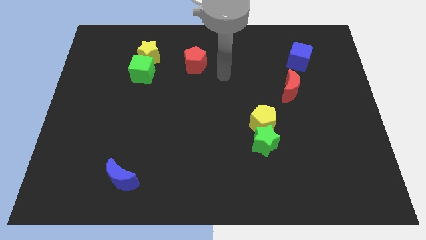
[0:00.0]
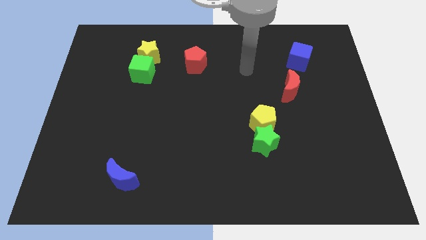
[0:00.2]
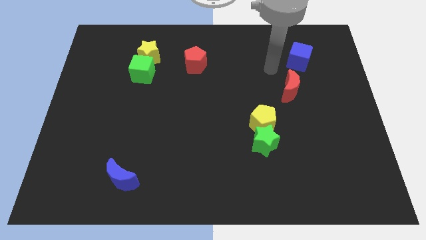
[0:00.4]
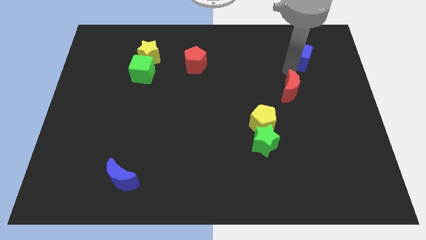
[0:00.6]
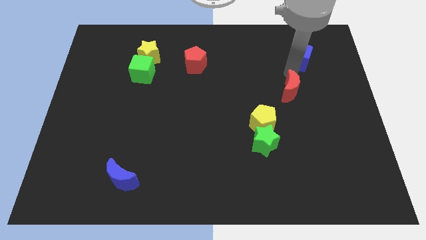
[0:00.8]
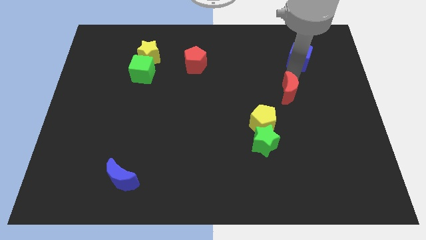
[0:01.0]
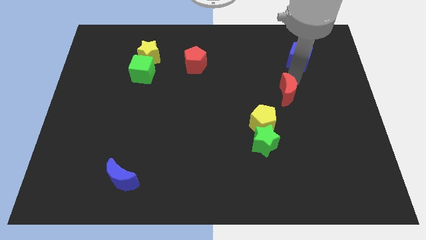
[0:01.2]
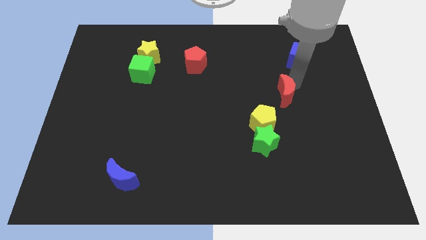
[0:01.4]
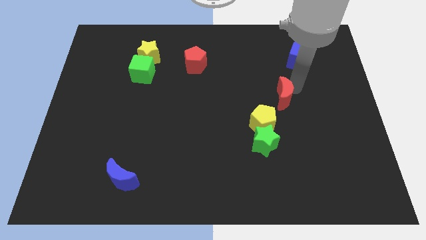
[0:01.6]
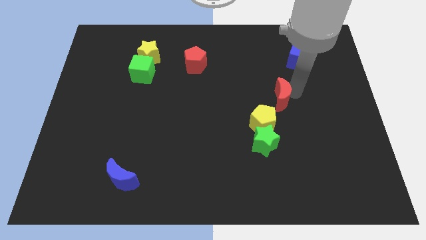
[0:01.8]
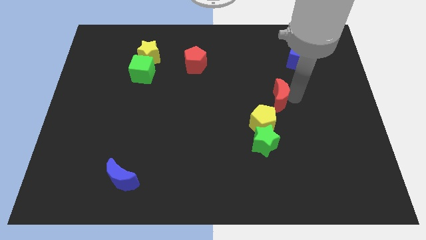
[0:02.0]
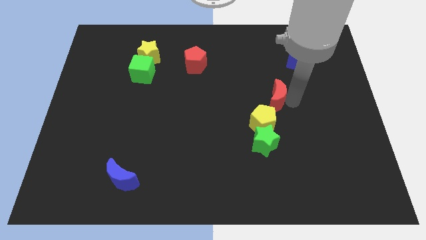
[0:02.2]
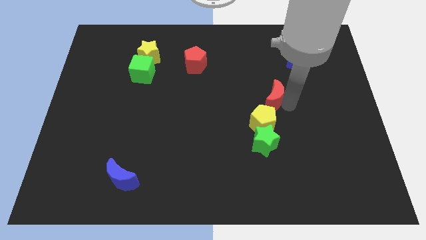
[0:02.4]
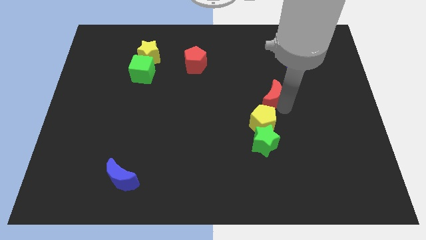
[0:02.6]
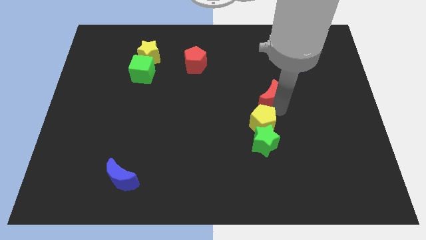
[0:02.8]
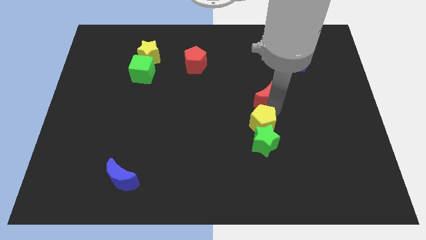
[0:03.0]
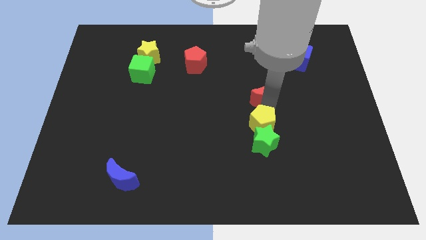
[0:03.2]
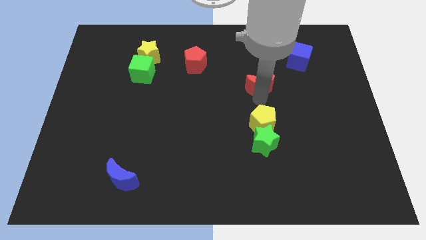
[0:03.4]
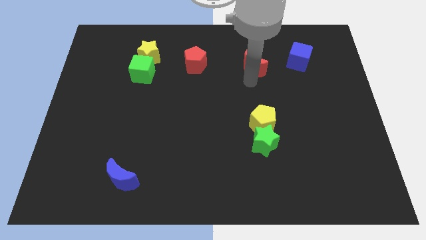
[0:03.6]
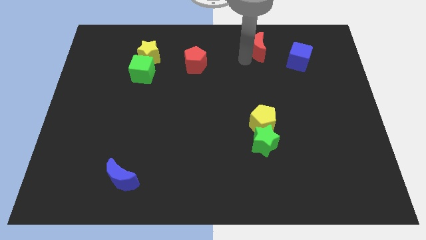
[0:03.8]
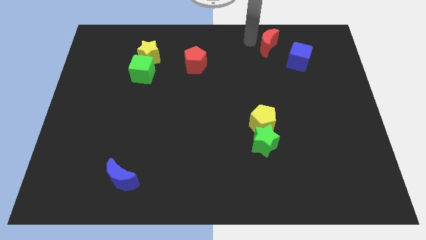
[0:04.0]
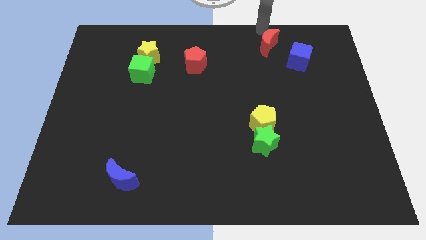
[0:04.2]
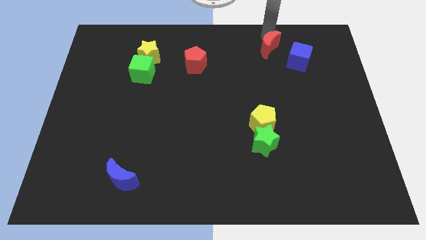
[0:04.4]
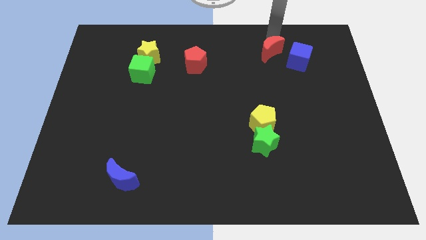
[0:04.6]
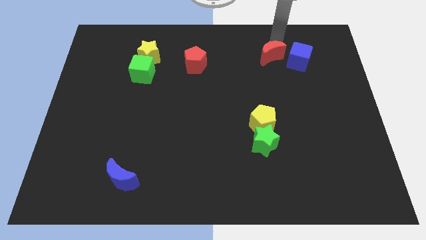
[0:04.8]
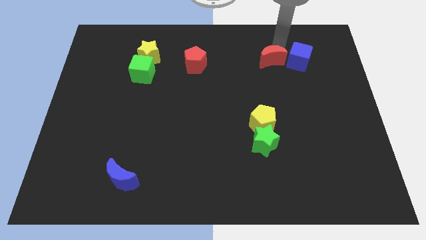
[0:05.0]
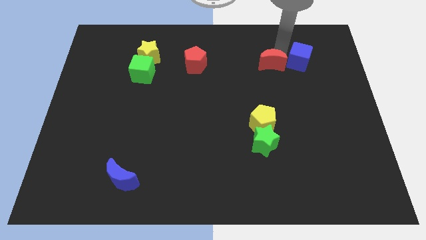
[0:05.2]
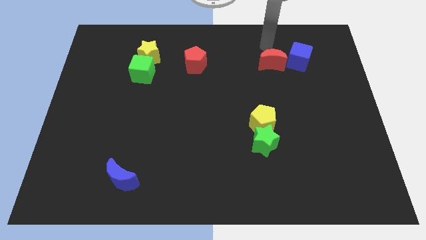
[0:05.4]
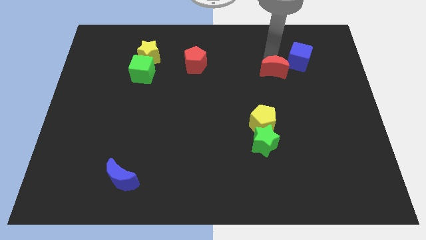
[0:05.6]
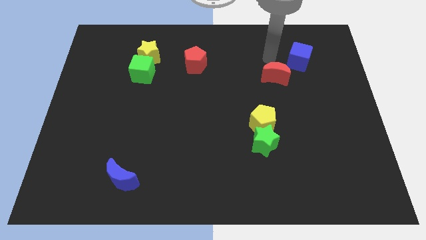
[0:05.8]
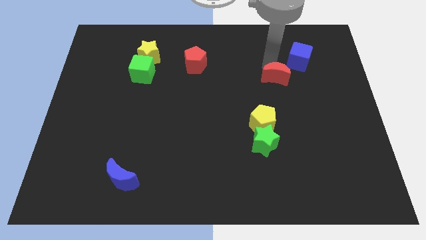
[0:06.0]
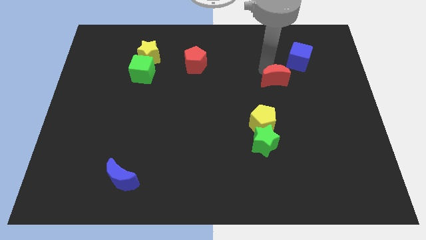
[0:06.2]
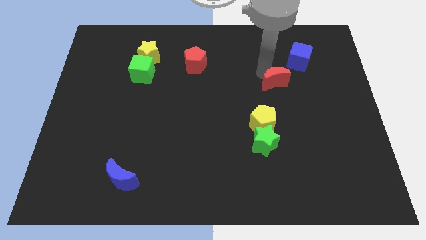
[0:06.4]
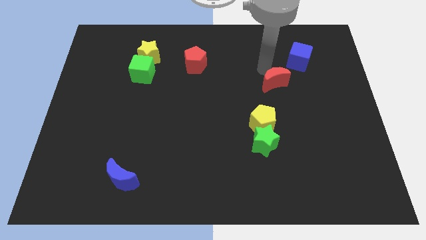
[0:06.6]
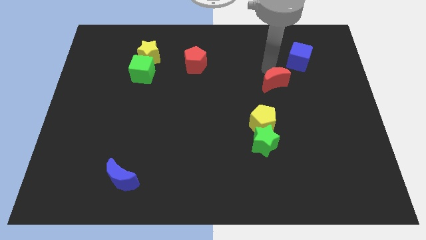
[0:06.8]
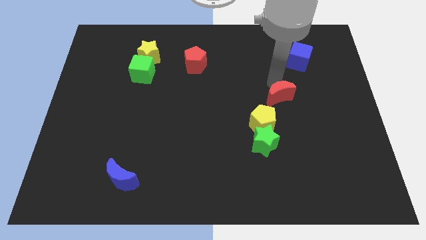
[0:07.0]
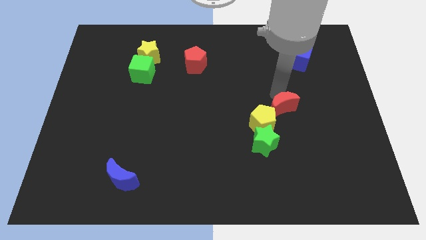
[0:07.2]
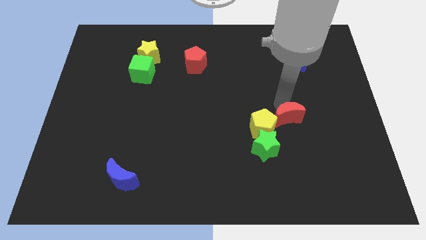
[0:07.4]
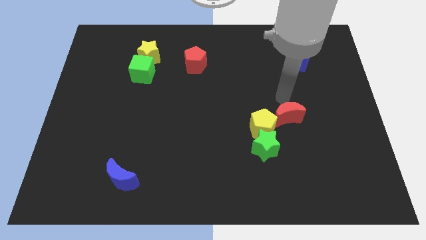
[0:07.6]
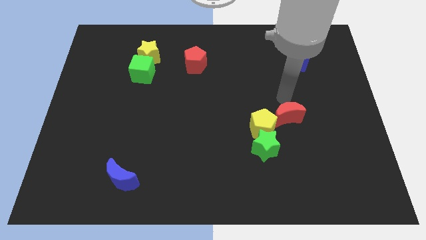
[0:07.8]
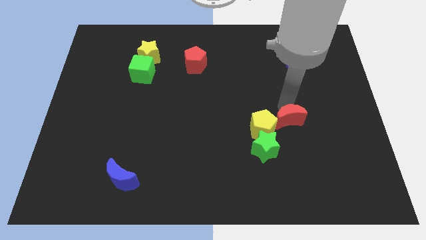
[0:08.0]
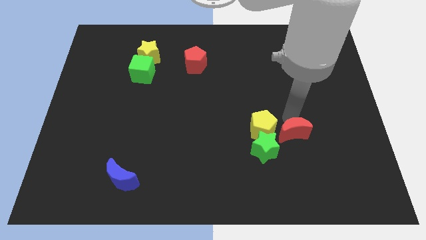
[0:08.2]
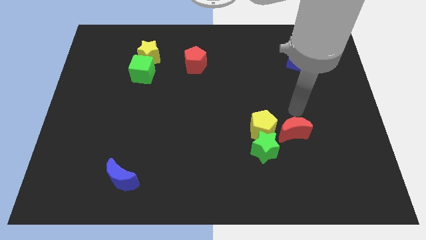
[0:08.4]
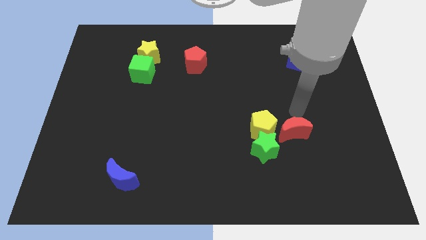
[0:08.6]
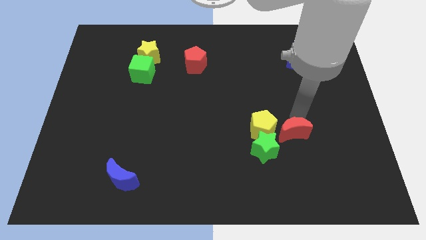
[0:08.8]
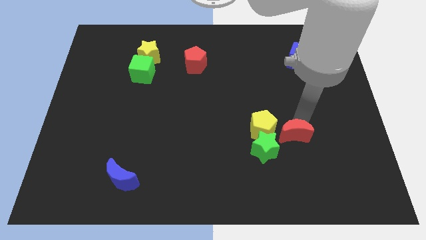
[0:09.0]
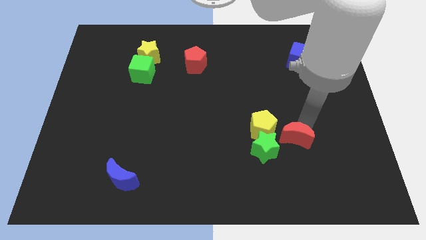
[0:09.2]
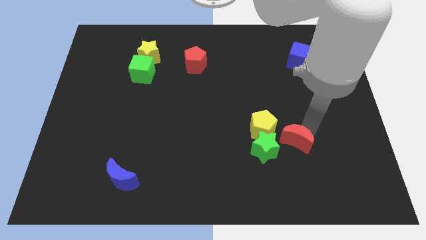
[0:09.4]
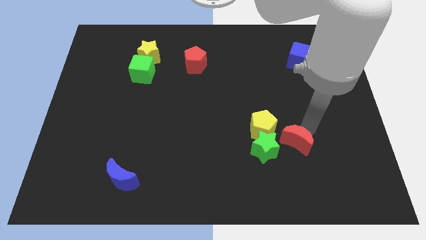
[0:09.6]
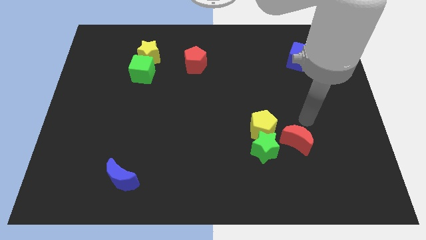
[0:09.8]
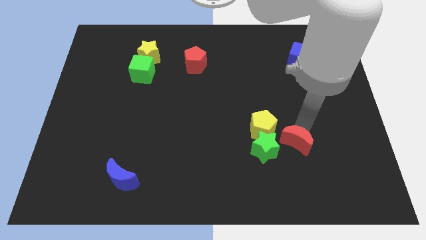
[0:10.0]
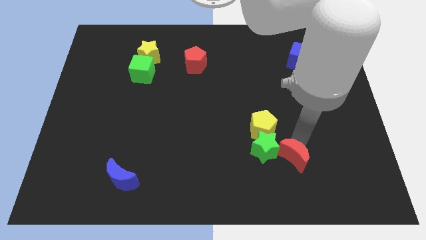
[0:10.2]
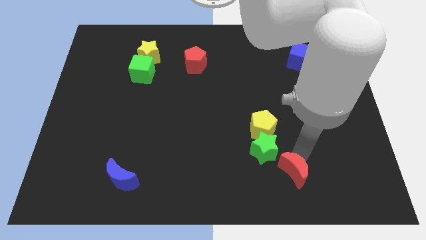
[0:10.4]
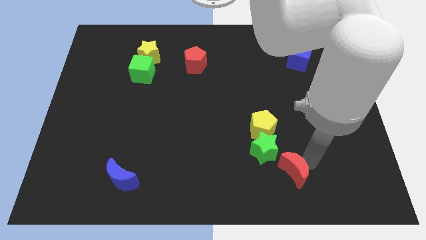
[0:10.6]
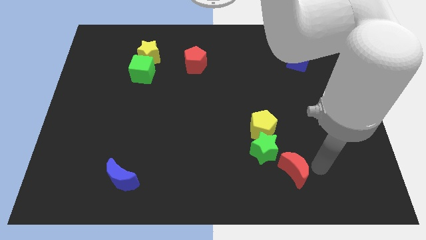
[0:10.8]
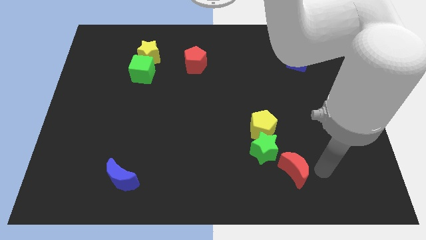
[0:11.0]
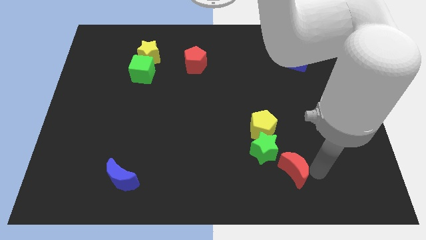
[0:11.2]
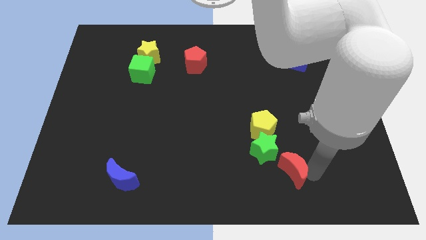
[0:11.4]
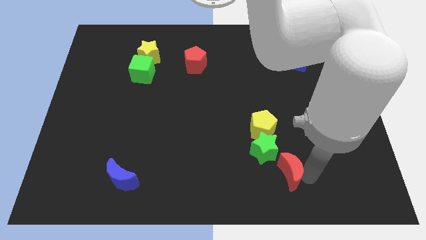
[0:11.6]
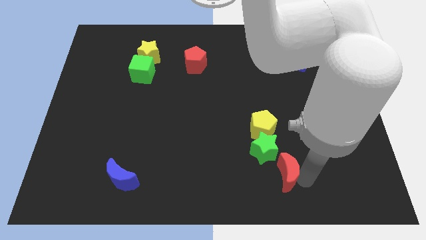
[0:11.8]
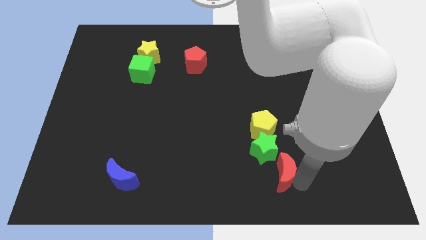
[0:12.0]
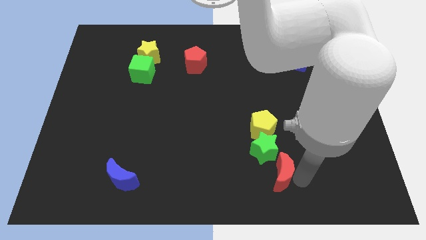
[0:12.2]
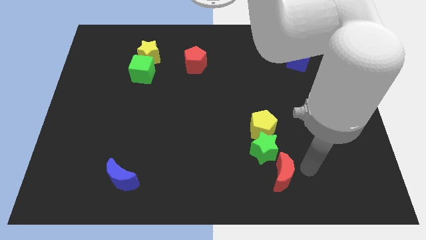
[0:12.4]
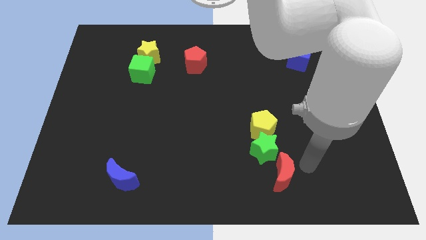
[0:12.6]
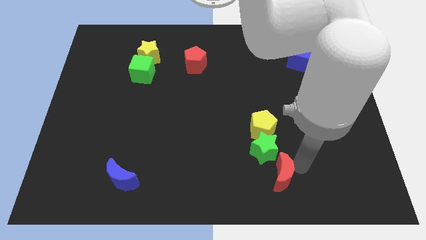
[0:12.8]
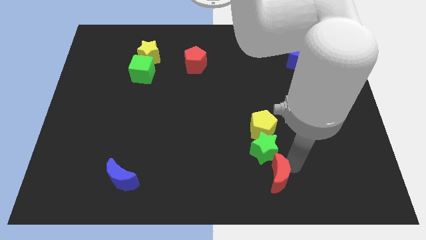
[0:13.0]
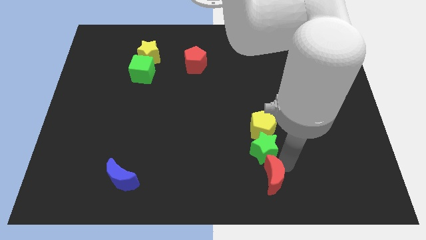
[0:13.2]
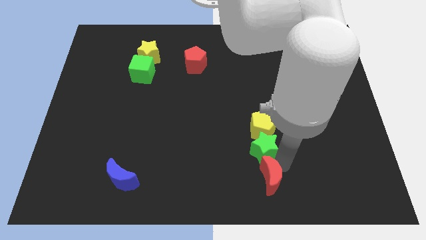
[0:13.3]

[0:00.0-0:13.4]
push the red moon to the bottom side
